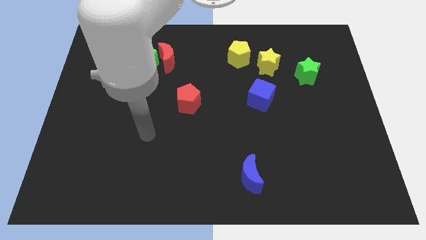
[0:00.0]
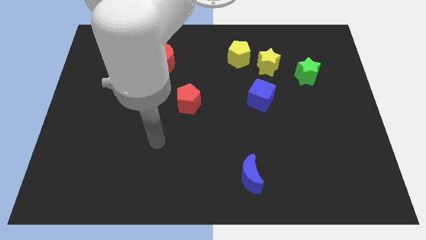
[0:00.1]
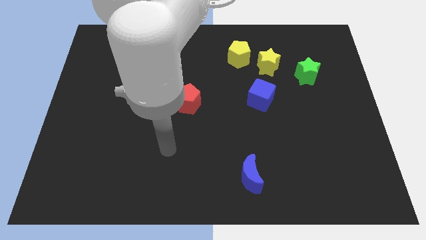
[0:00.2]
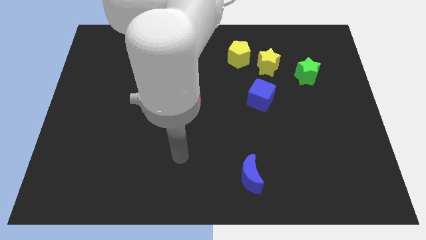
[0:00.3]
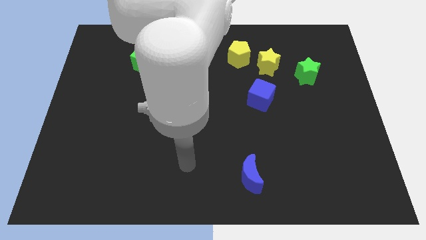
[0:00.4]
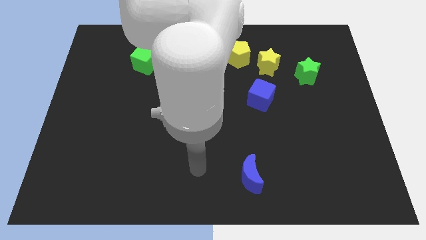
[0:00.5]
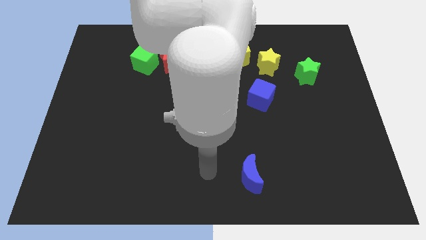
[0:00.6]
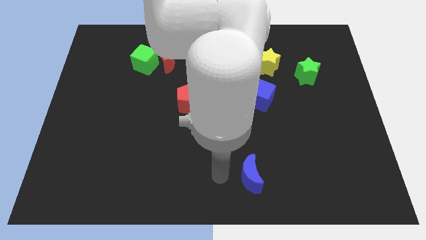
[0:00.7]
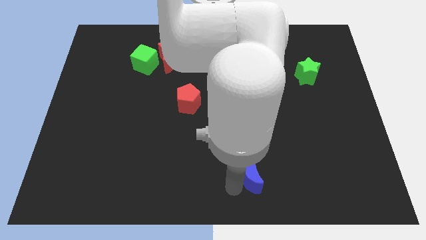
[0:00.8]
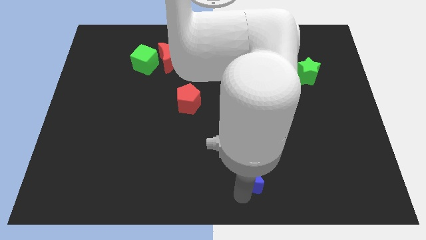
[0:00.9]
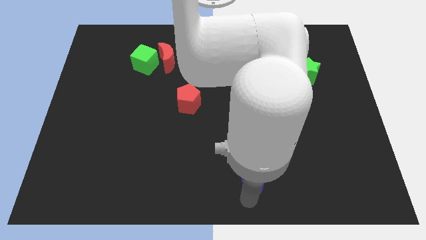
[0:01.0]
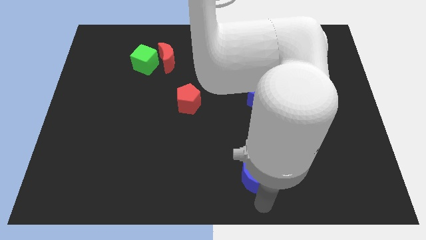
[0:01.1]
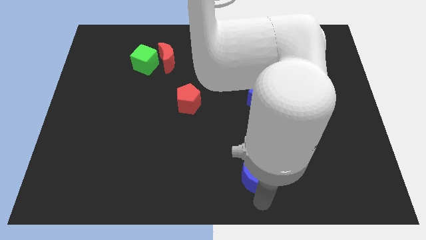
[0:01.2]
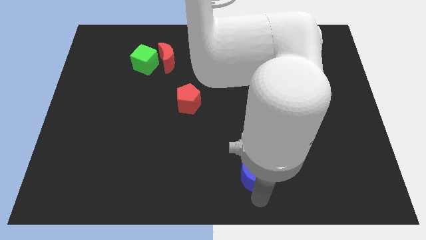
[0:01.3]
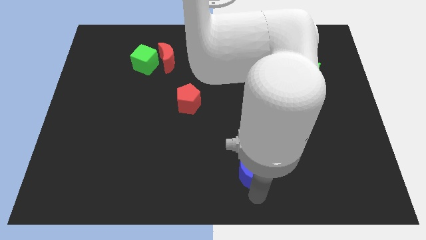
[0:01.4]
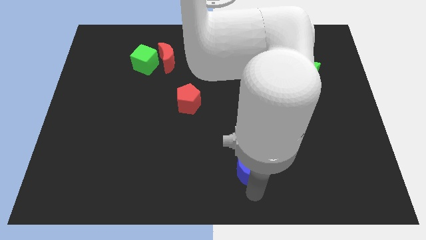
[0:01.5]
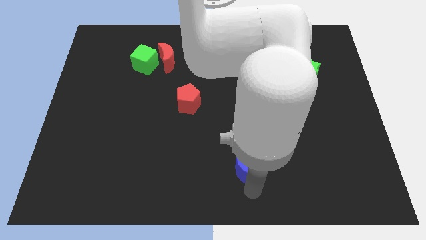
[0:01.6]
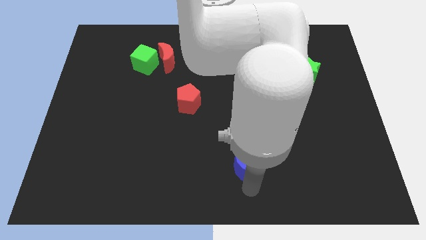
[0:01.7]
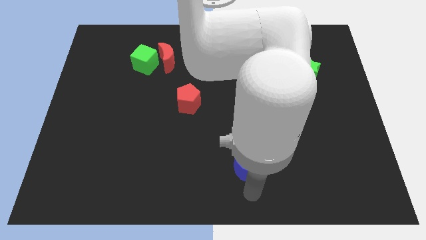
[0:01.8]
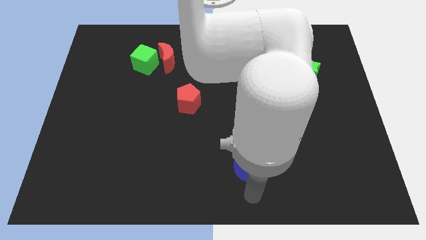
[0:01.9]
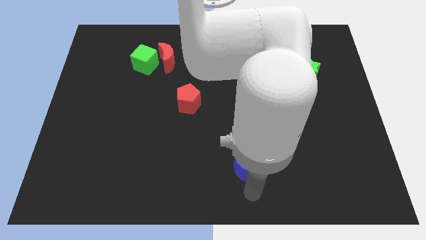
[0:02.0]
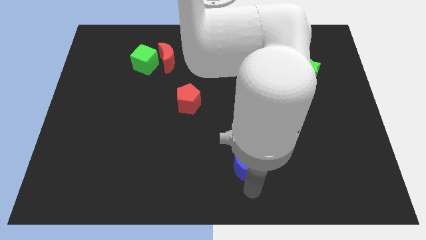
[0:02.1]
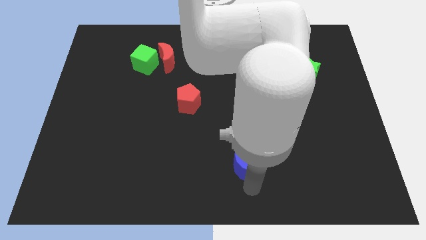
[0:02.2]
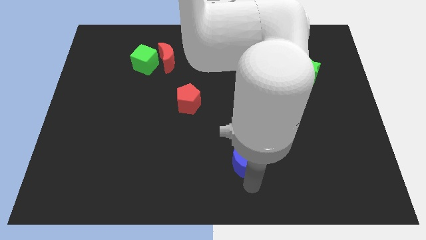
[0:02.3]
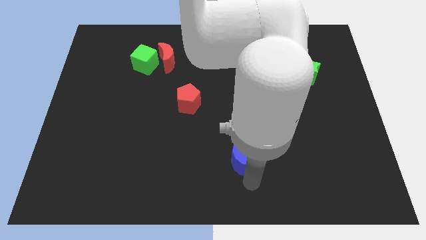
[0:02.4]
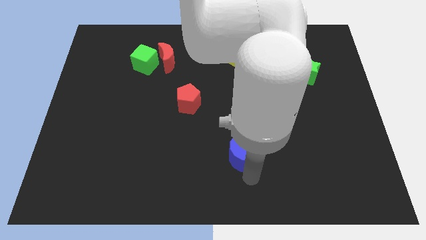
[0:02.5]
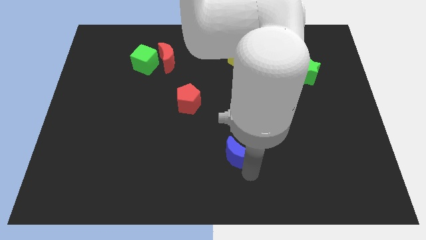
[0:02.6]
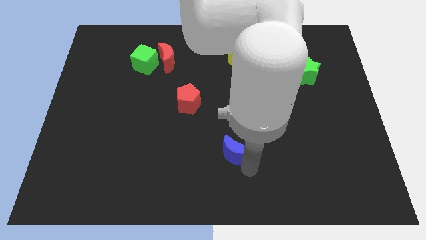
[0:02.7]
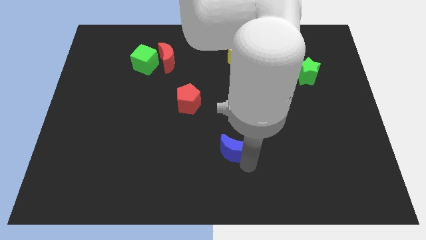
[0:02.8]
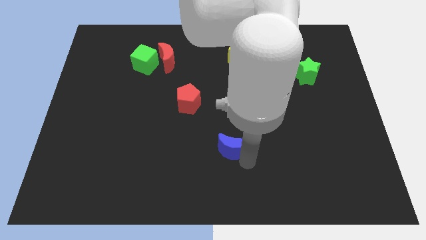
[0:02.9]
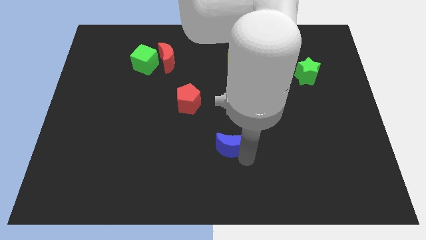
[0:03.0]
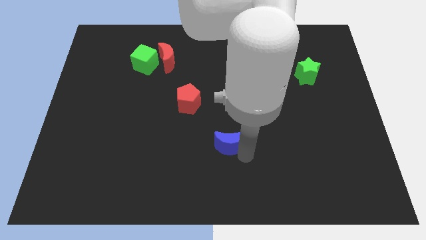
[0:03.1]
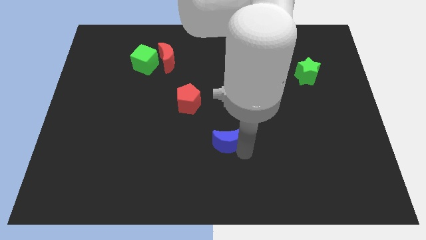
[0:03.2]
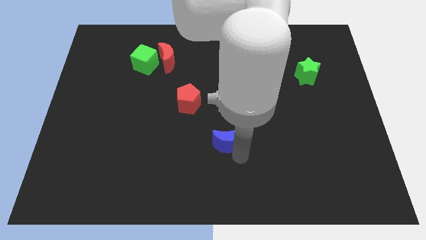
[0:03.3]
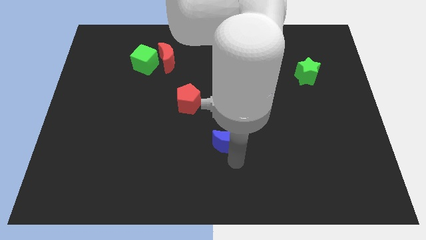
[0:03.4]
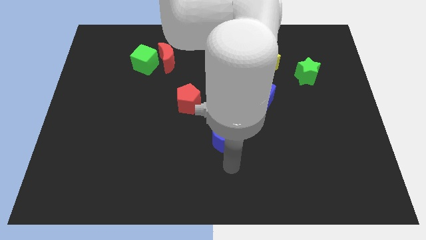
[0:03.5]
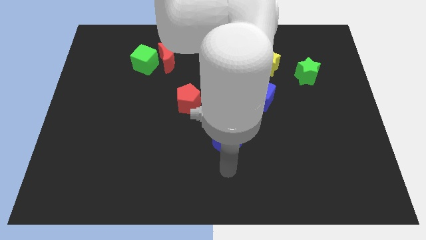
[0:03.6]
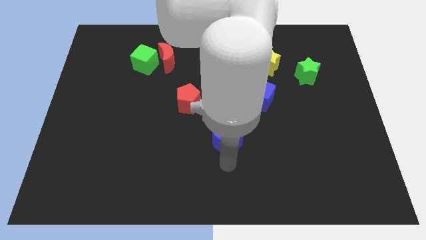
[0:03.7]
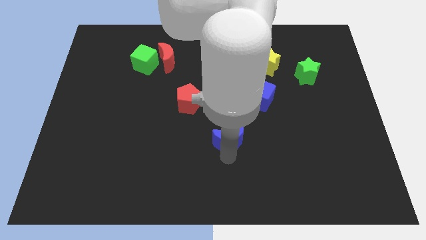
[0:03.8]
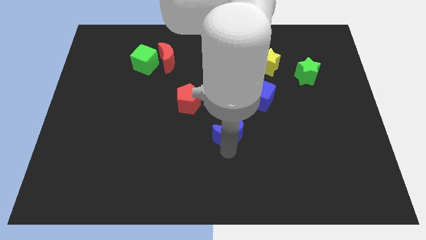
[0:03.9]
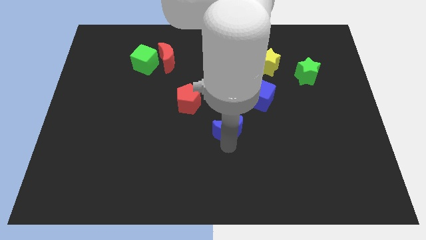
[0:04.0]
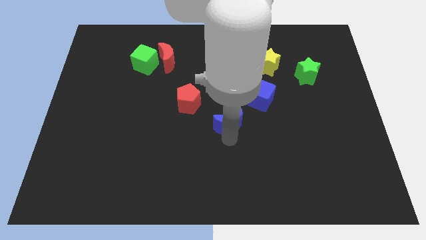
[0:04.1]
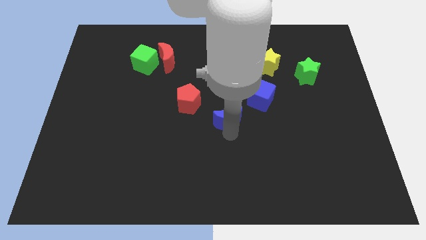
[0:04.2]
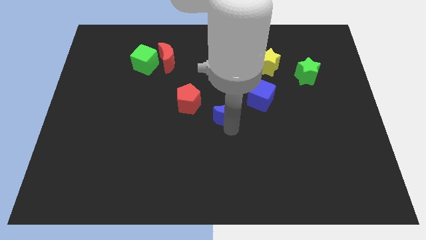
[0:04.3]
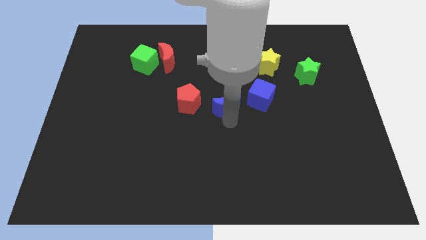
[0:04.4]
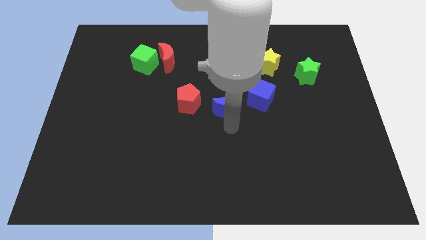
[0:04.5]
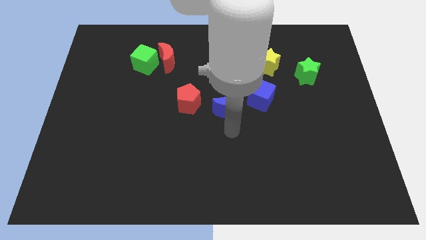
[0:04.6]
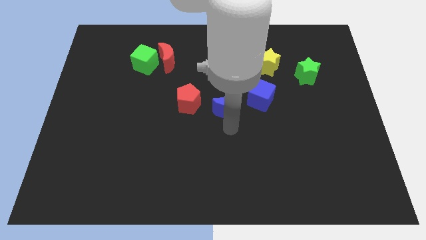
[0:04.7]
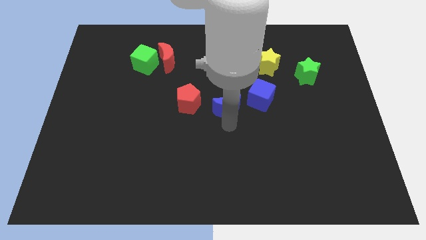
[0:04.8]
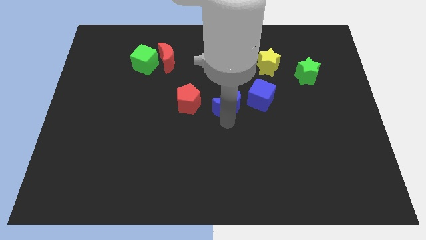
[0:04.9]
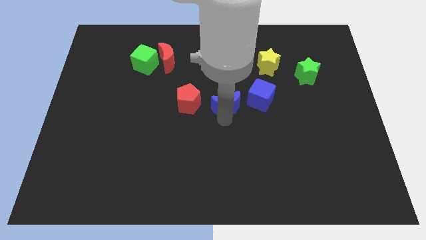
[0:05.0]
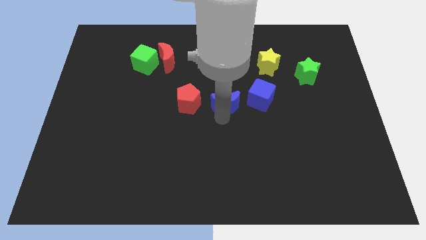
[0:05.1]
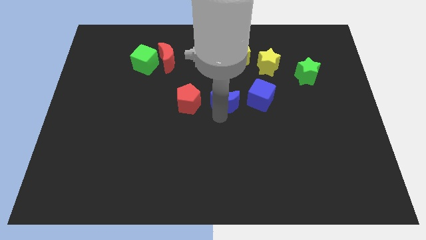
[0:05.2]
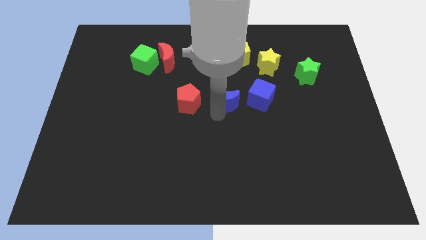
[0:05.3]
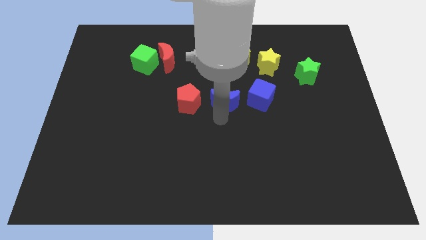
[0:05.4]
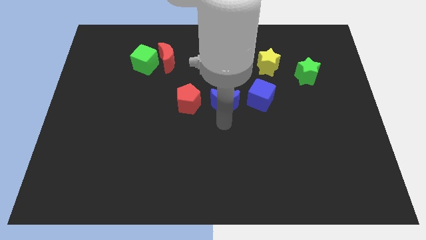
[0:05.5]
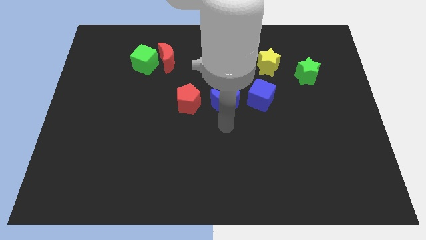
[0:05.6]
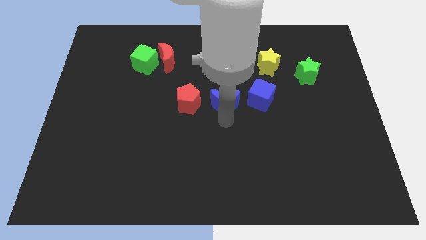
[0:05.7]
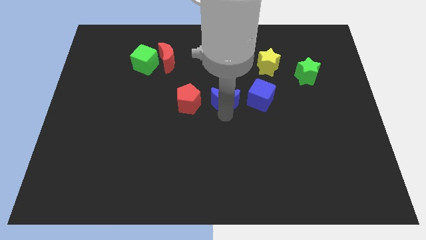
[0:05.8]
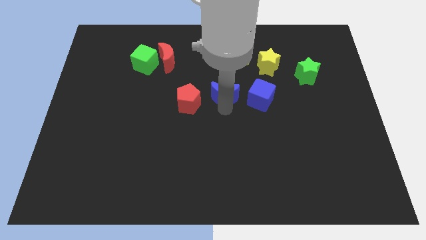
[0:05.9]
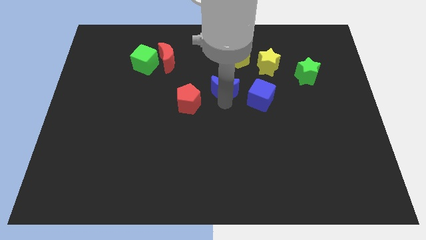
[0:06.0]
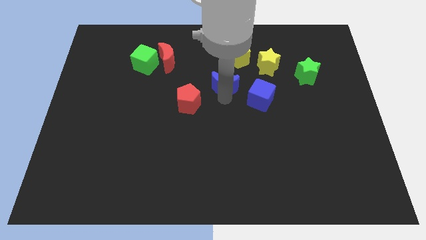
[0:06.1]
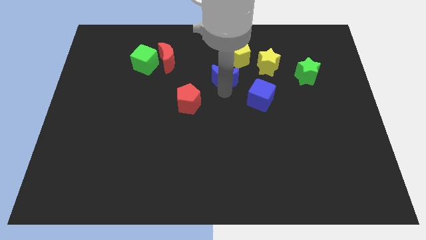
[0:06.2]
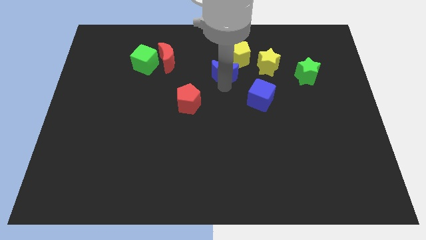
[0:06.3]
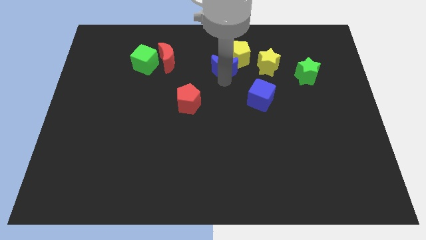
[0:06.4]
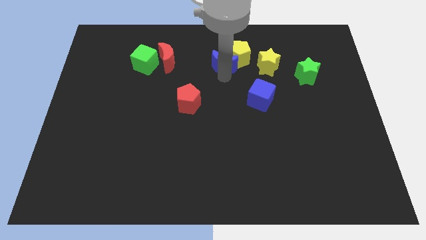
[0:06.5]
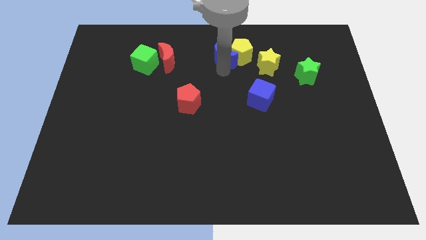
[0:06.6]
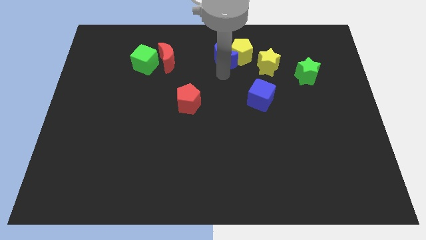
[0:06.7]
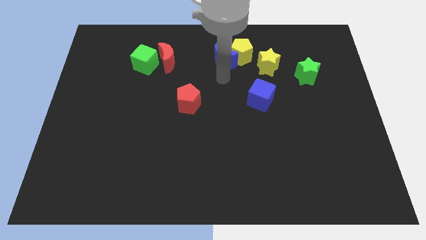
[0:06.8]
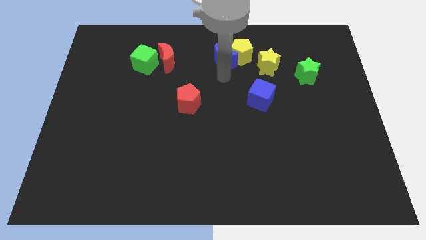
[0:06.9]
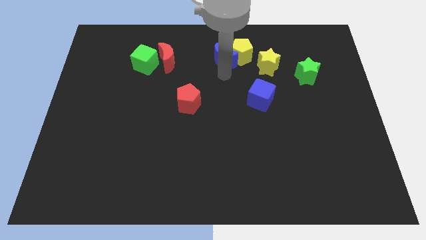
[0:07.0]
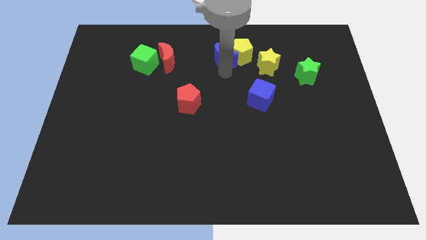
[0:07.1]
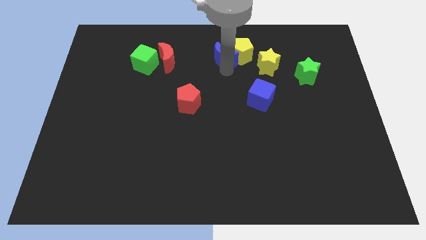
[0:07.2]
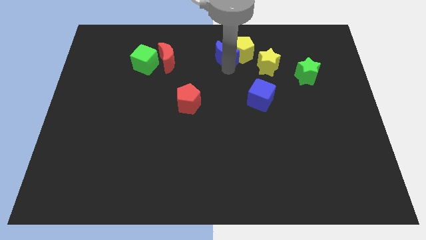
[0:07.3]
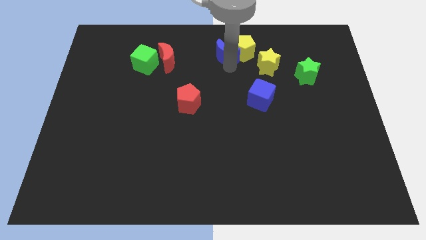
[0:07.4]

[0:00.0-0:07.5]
move the blue moon to the towards your base
